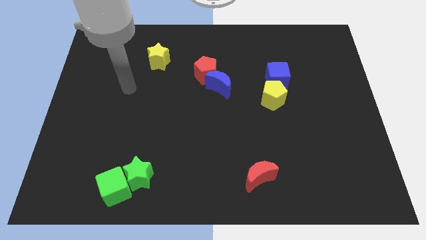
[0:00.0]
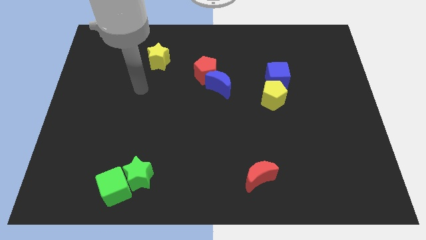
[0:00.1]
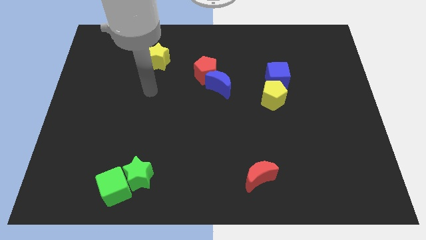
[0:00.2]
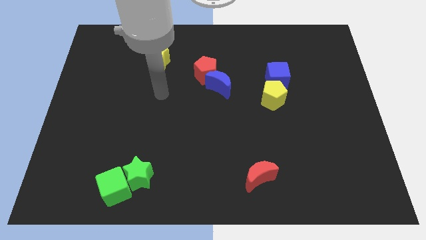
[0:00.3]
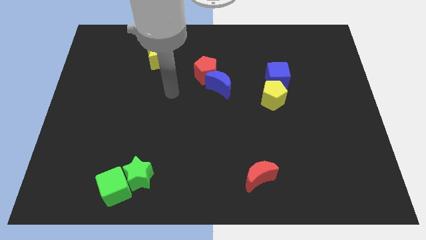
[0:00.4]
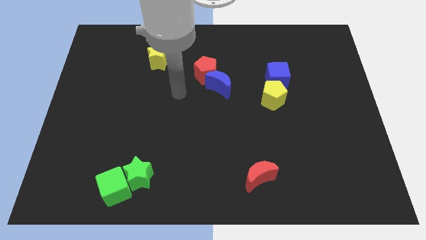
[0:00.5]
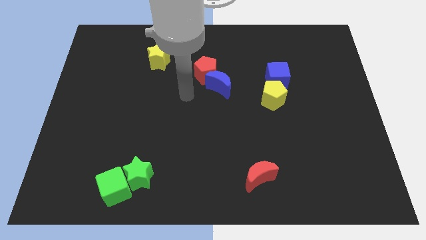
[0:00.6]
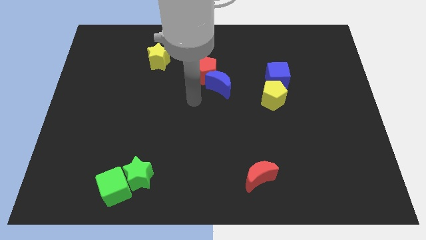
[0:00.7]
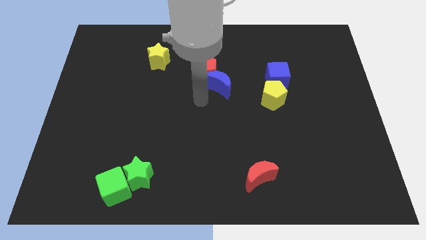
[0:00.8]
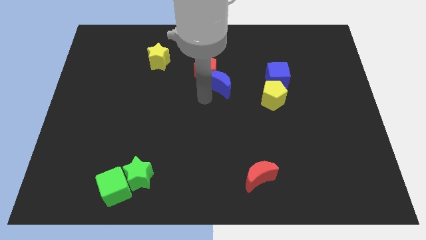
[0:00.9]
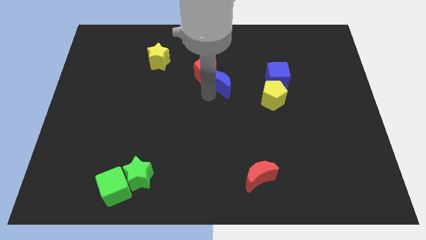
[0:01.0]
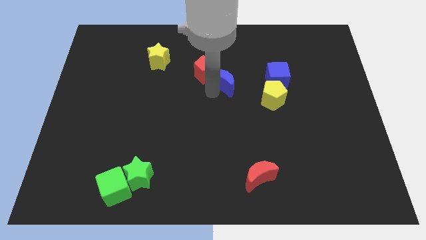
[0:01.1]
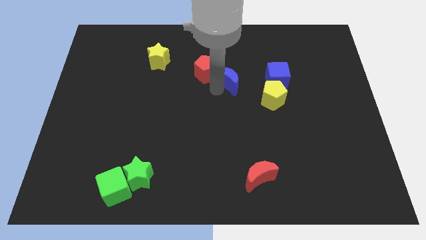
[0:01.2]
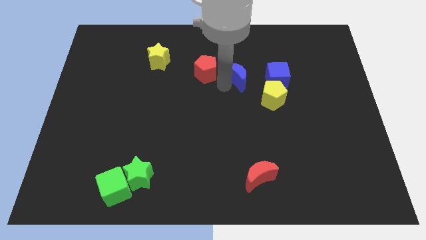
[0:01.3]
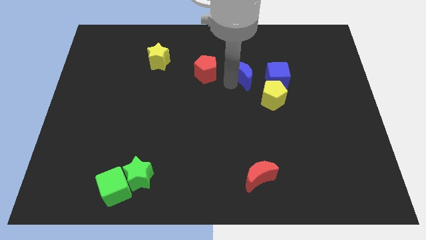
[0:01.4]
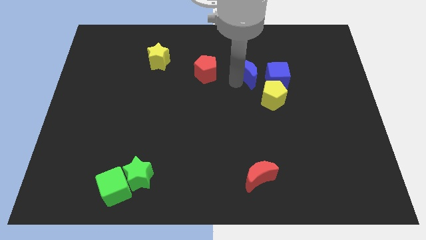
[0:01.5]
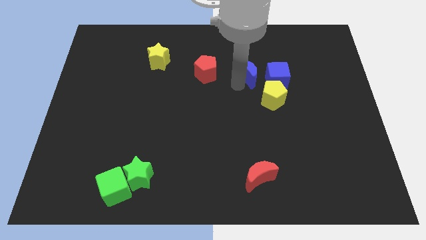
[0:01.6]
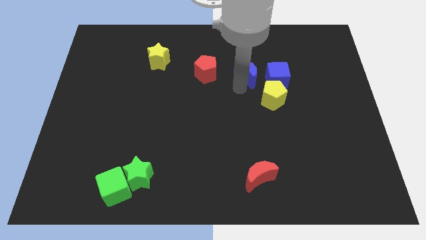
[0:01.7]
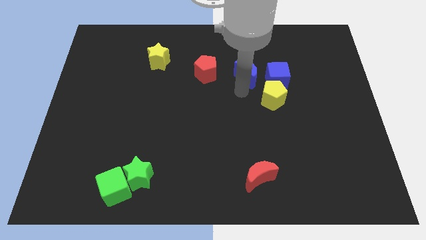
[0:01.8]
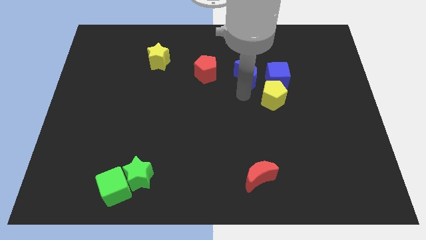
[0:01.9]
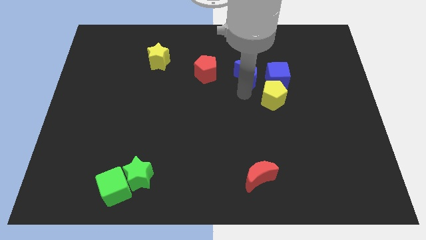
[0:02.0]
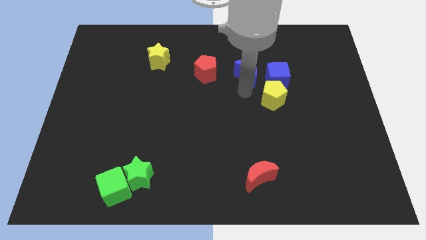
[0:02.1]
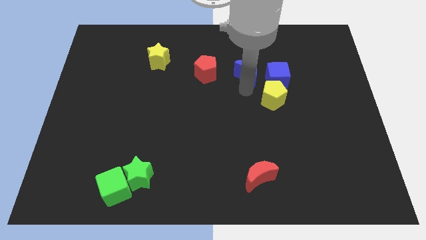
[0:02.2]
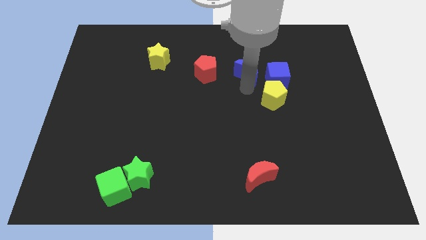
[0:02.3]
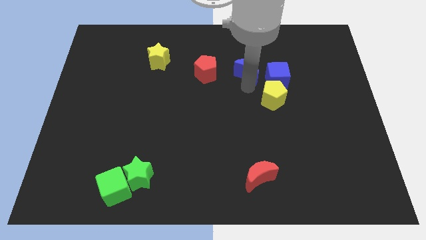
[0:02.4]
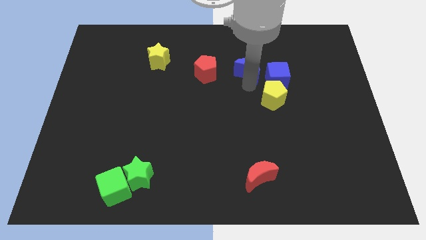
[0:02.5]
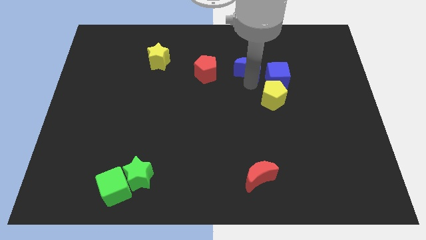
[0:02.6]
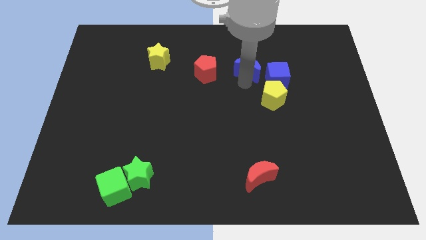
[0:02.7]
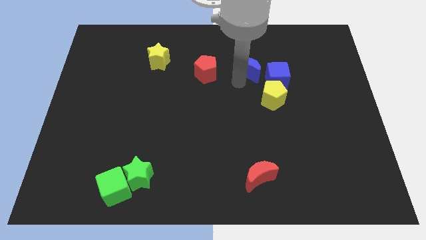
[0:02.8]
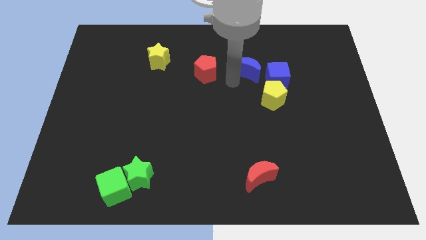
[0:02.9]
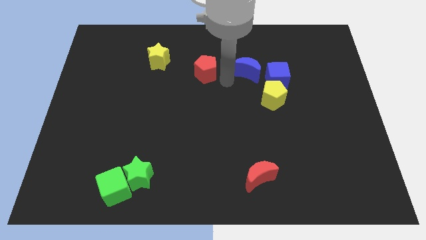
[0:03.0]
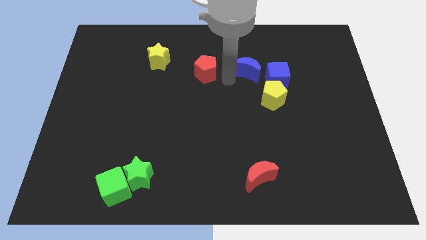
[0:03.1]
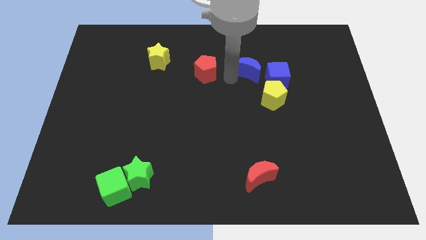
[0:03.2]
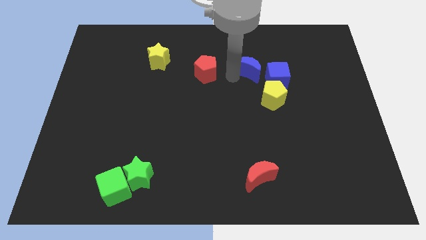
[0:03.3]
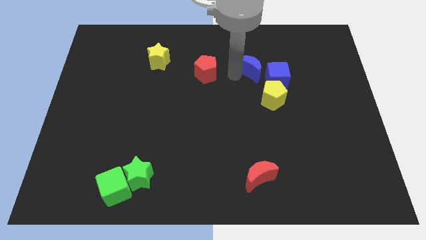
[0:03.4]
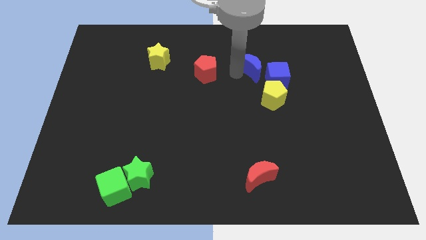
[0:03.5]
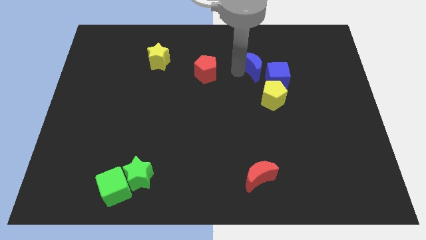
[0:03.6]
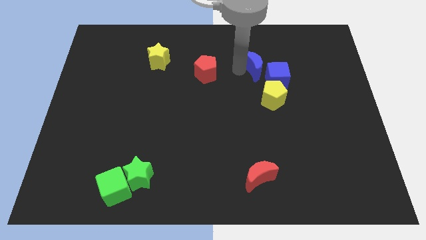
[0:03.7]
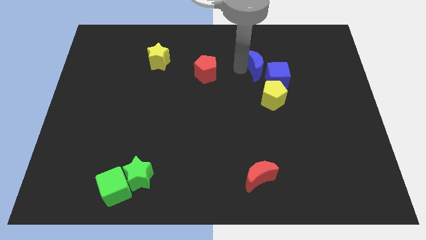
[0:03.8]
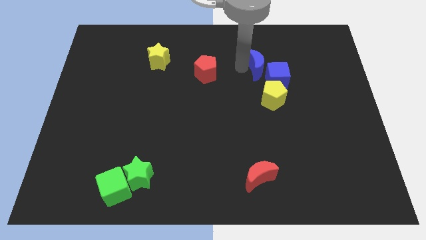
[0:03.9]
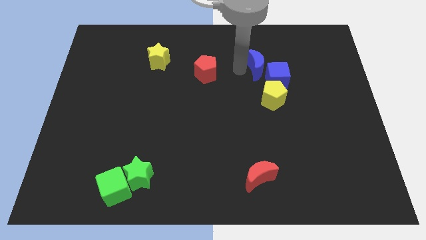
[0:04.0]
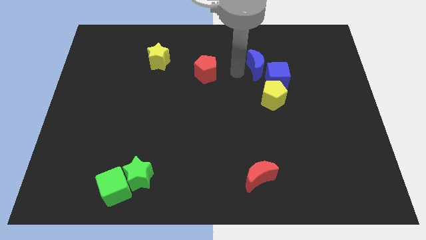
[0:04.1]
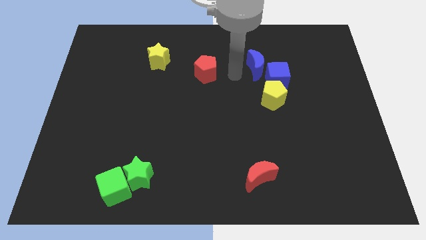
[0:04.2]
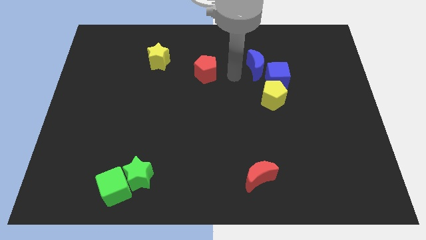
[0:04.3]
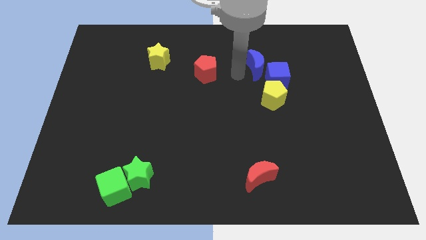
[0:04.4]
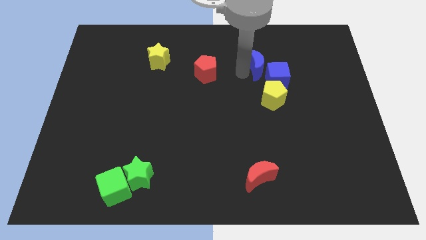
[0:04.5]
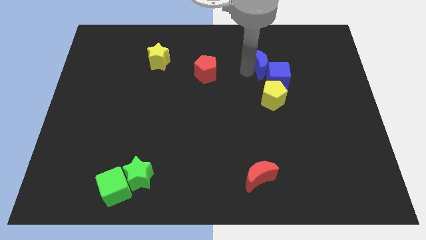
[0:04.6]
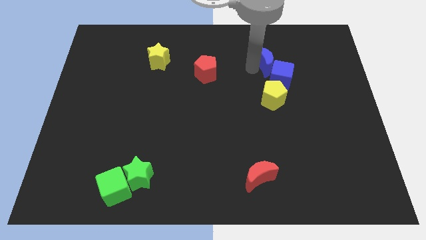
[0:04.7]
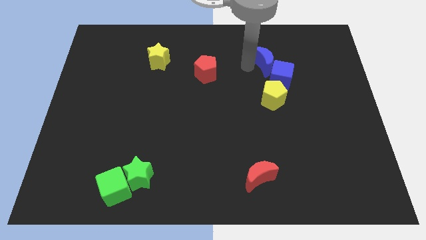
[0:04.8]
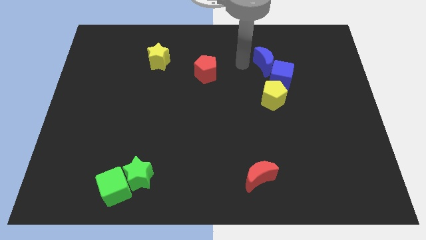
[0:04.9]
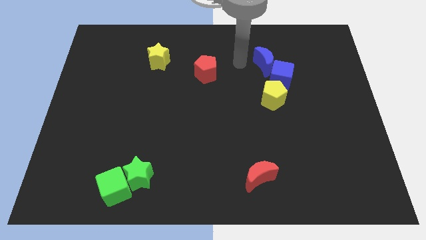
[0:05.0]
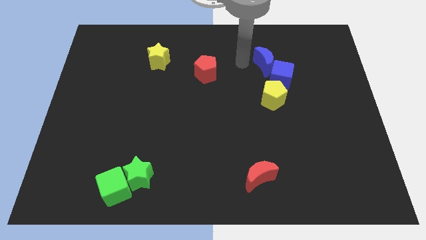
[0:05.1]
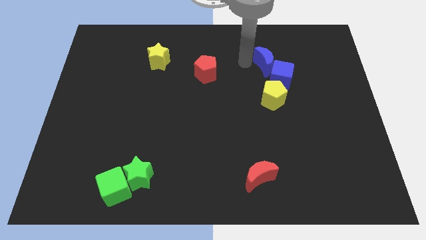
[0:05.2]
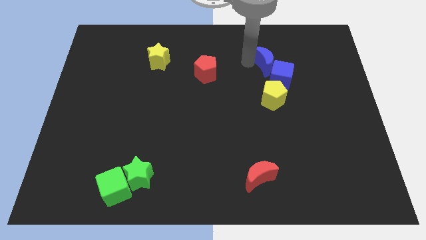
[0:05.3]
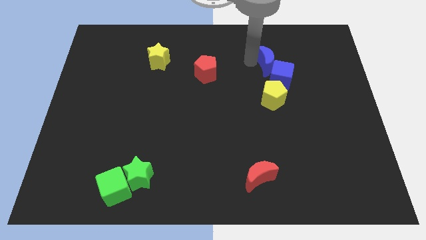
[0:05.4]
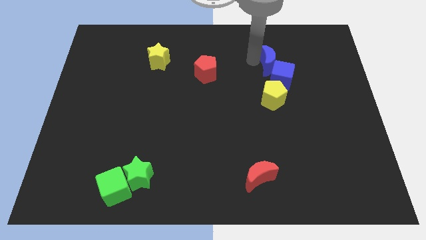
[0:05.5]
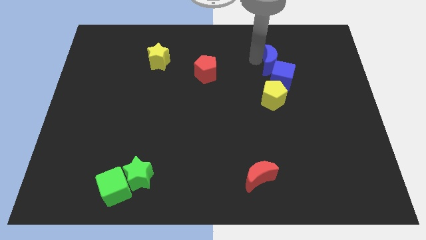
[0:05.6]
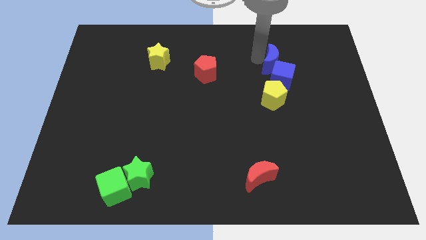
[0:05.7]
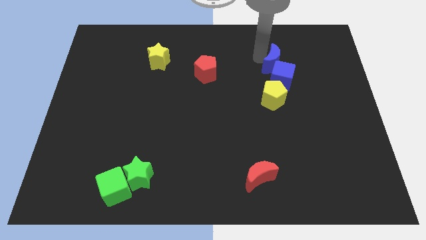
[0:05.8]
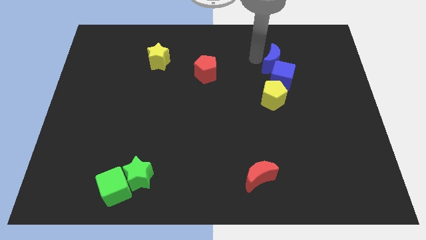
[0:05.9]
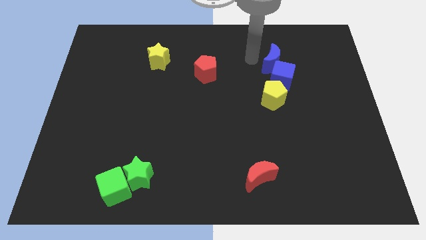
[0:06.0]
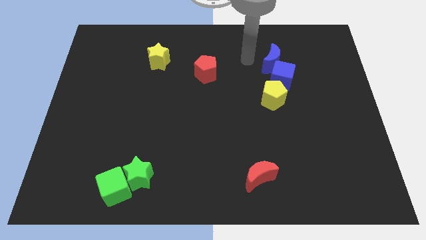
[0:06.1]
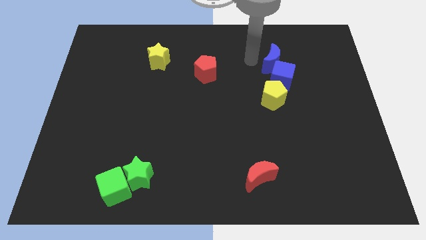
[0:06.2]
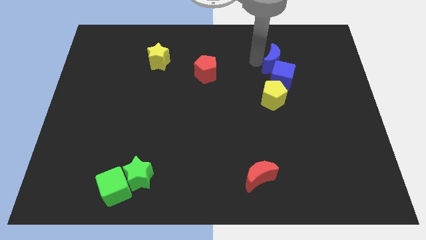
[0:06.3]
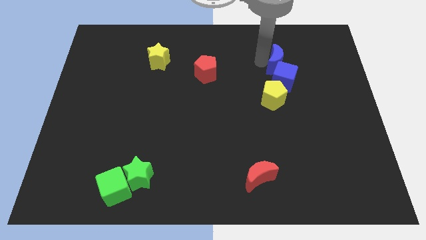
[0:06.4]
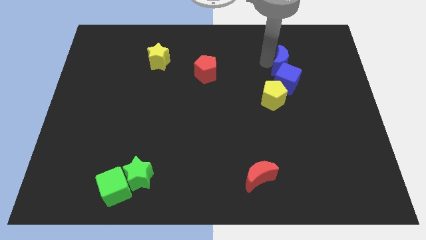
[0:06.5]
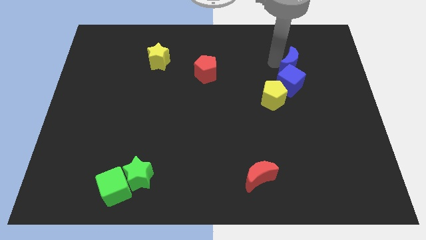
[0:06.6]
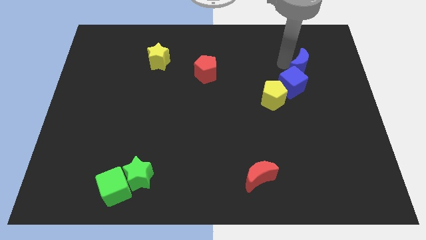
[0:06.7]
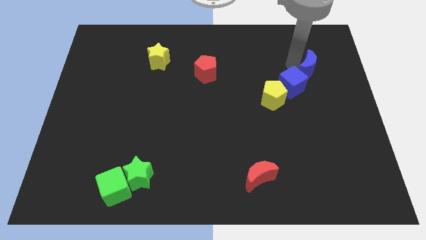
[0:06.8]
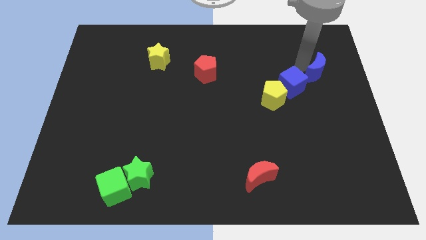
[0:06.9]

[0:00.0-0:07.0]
move the blue moon to the right of the blue cube

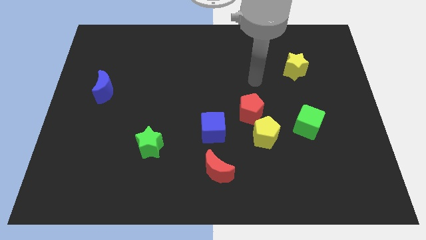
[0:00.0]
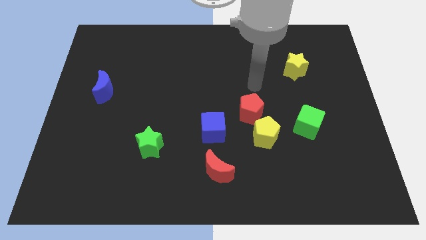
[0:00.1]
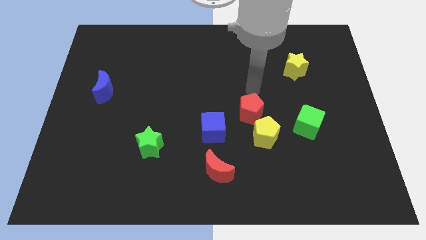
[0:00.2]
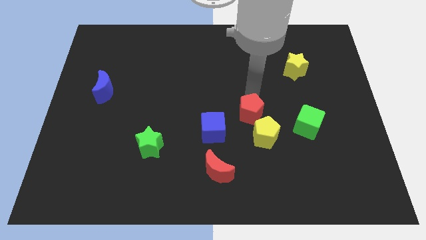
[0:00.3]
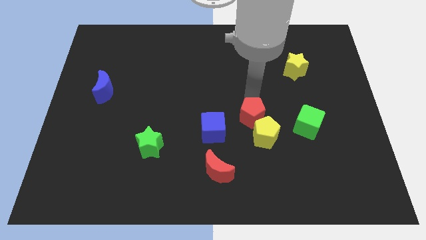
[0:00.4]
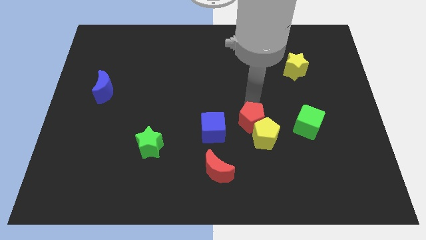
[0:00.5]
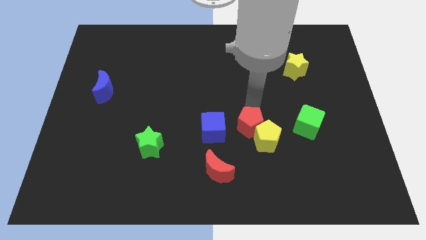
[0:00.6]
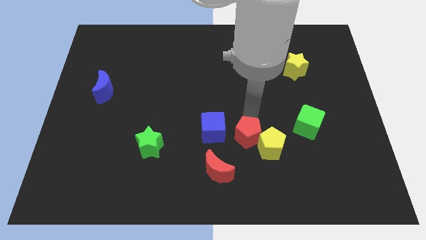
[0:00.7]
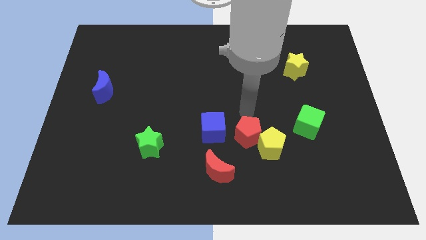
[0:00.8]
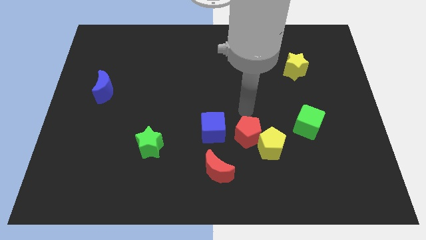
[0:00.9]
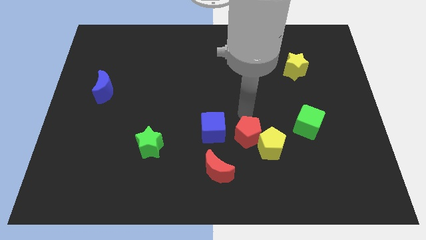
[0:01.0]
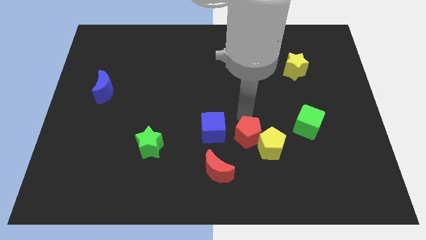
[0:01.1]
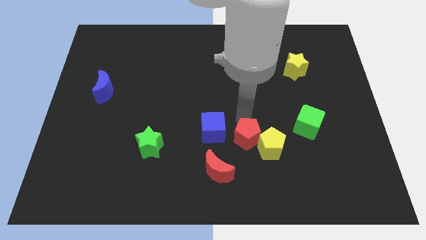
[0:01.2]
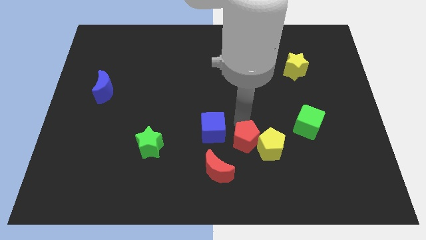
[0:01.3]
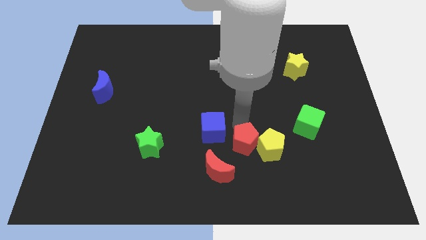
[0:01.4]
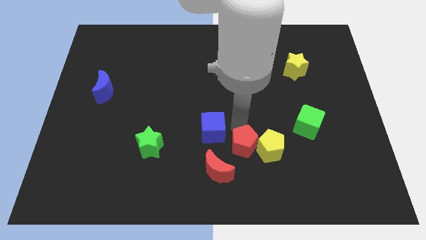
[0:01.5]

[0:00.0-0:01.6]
slide the red pentagon to the bottom left side of the yellow pentagon
